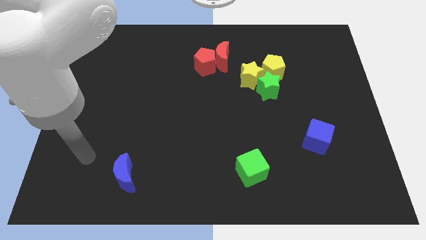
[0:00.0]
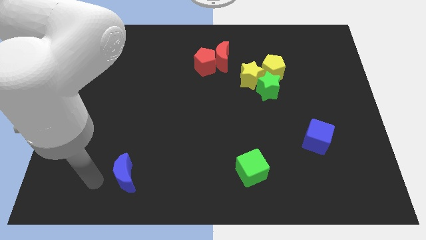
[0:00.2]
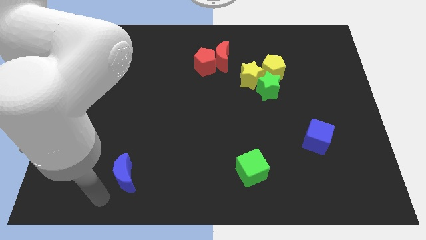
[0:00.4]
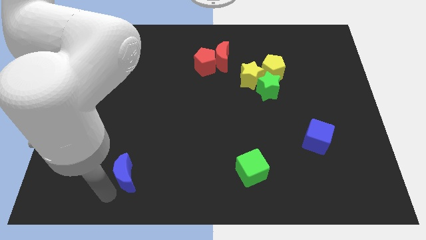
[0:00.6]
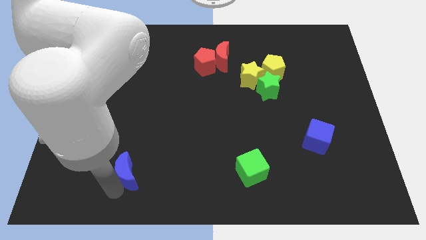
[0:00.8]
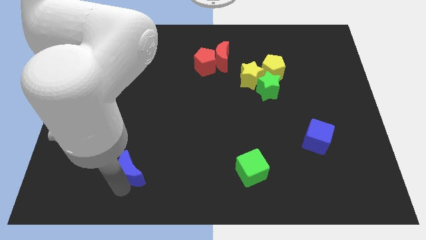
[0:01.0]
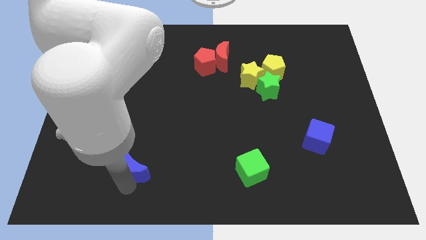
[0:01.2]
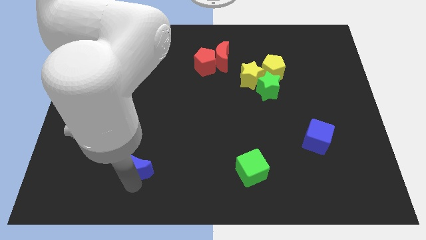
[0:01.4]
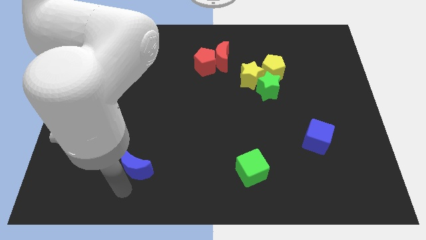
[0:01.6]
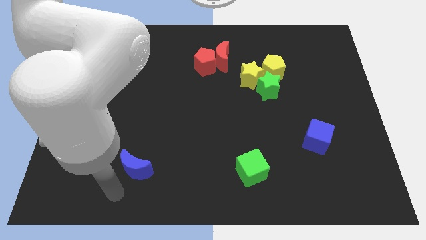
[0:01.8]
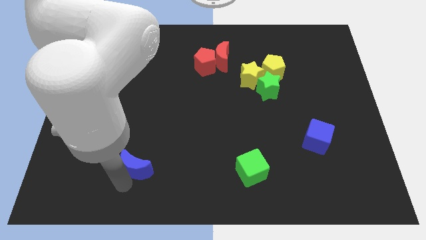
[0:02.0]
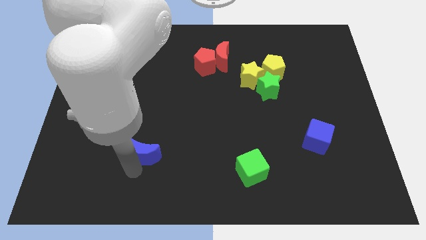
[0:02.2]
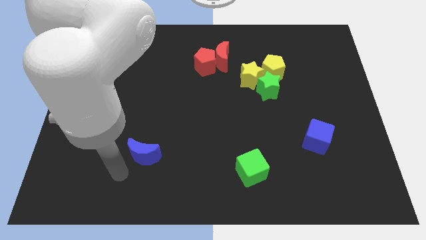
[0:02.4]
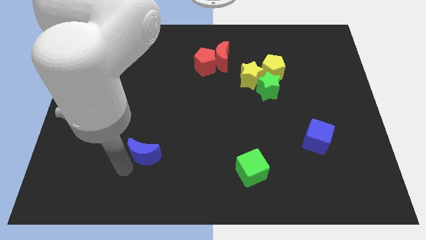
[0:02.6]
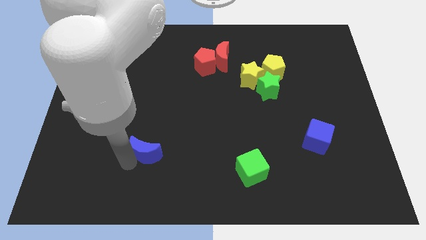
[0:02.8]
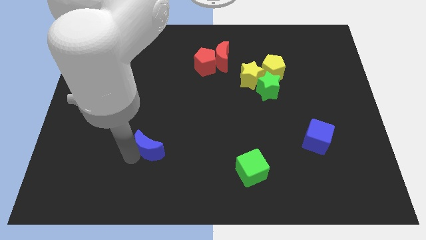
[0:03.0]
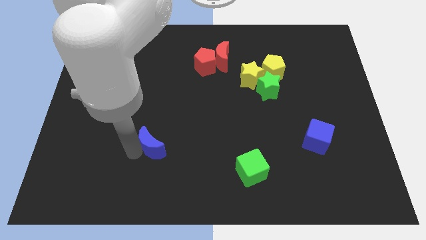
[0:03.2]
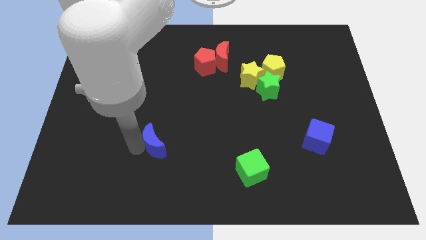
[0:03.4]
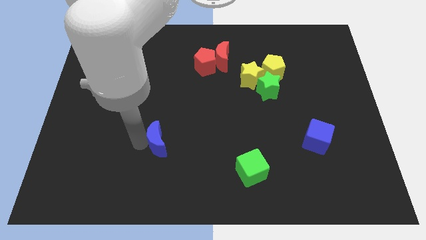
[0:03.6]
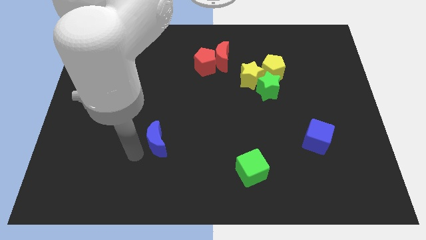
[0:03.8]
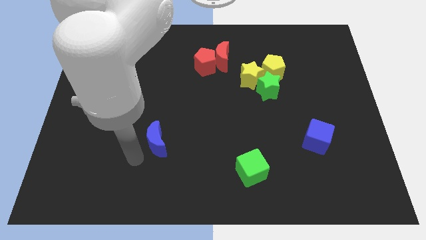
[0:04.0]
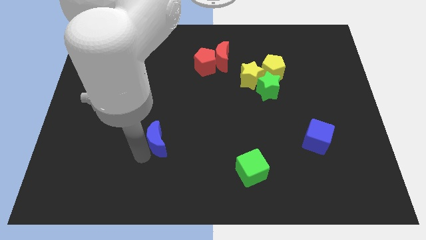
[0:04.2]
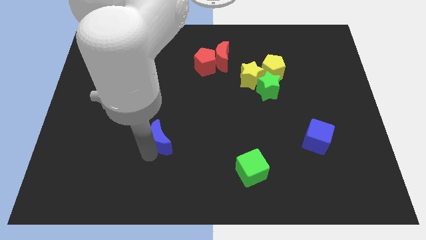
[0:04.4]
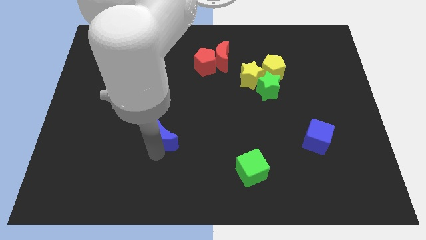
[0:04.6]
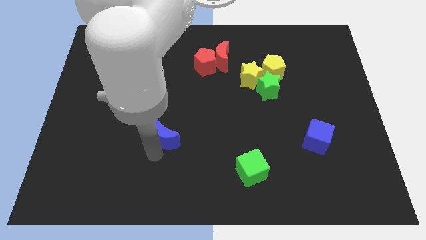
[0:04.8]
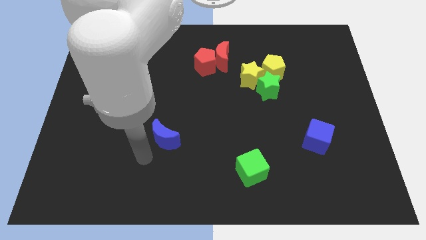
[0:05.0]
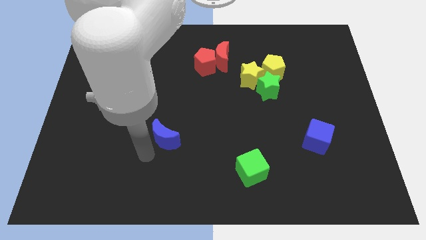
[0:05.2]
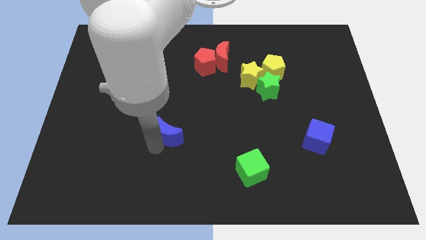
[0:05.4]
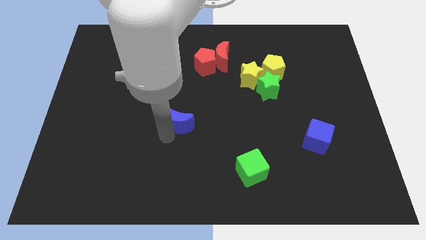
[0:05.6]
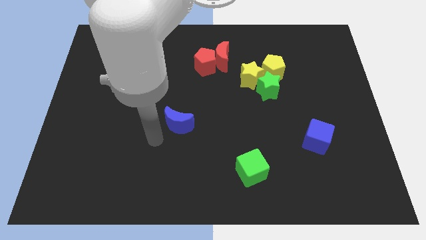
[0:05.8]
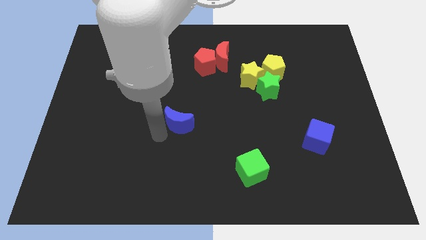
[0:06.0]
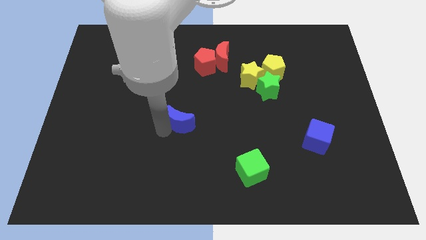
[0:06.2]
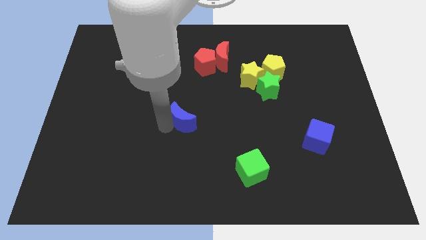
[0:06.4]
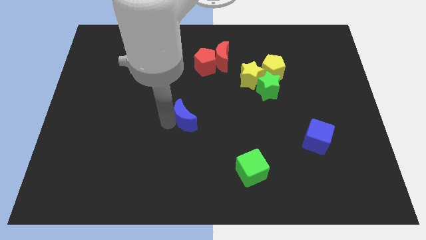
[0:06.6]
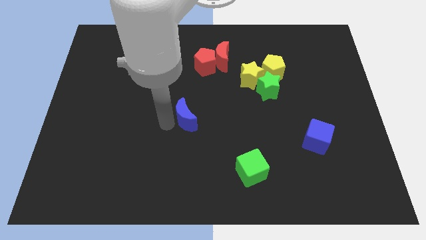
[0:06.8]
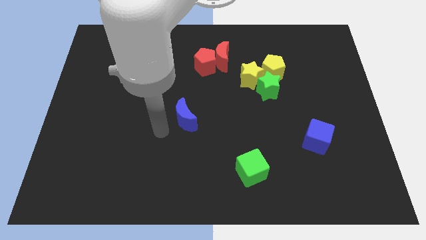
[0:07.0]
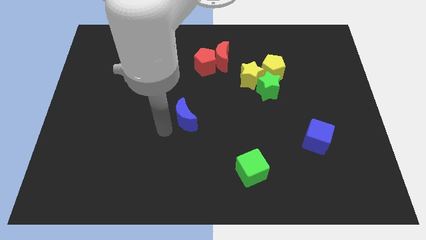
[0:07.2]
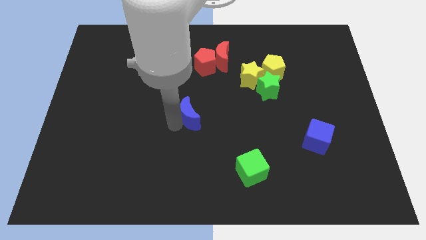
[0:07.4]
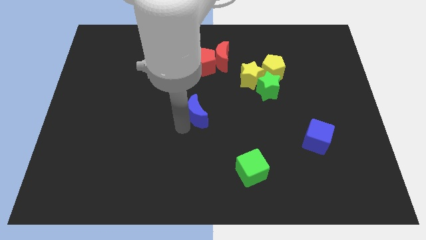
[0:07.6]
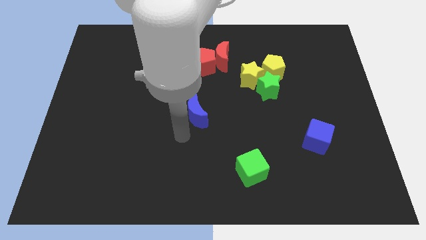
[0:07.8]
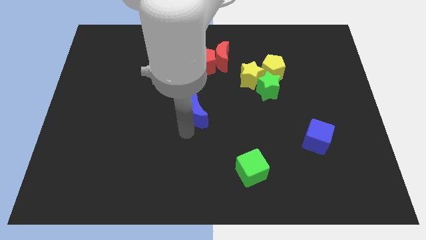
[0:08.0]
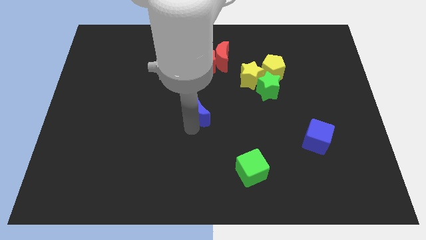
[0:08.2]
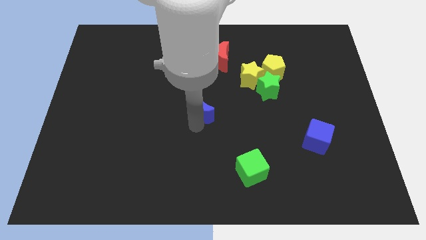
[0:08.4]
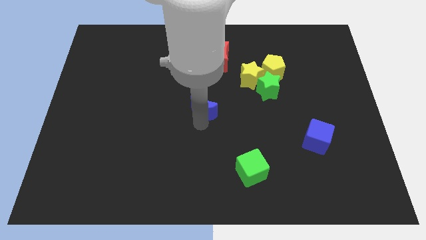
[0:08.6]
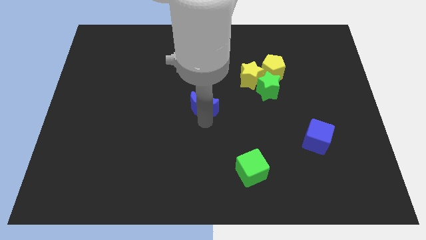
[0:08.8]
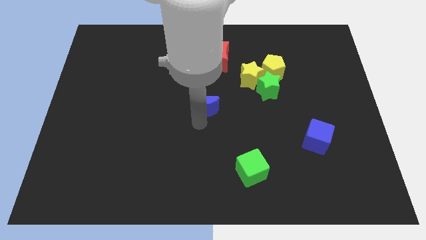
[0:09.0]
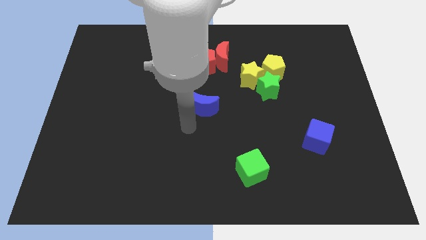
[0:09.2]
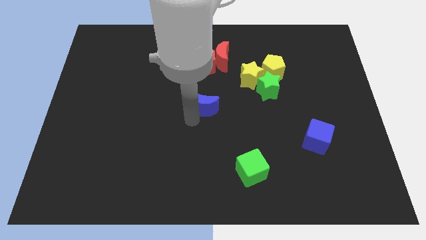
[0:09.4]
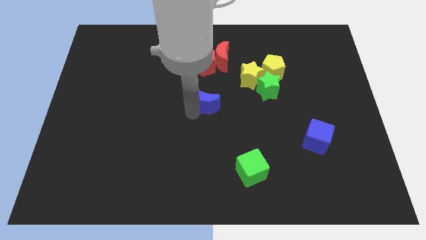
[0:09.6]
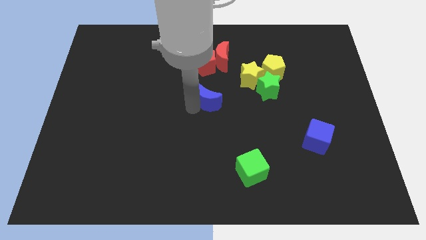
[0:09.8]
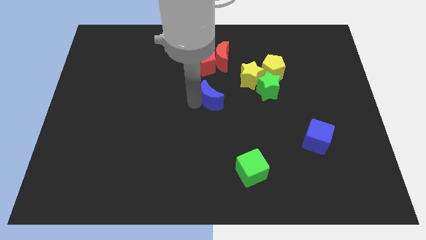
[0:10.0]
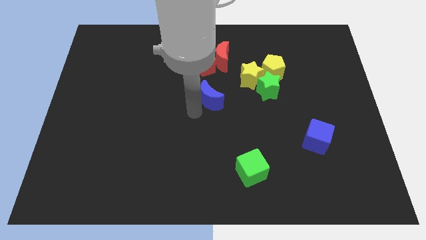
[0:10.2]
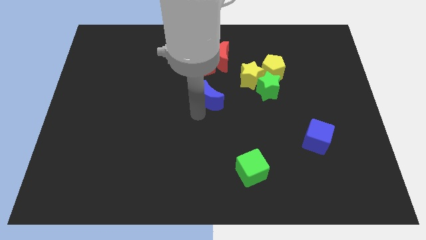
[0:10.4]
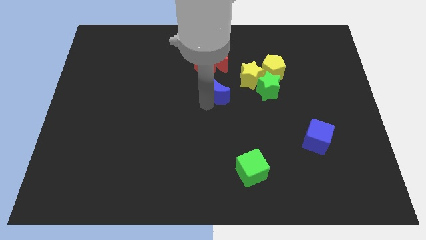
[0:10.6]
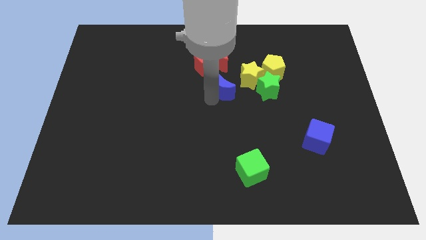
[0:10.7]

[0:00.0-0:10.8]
slide the blue moon to the bottom right side of the red pentagon

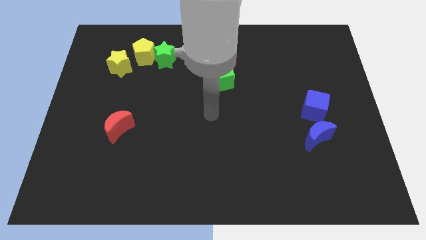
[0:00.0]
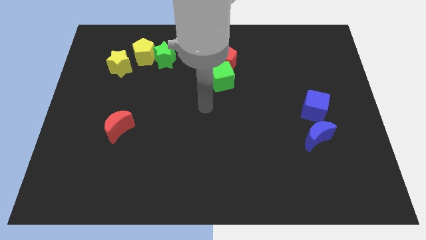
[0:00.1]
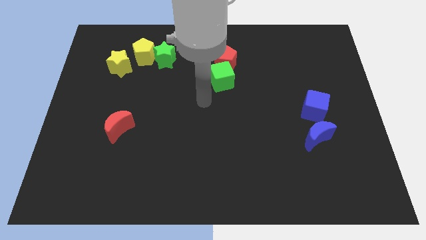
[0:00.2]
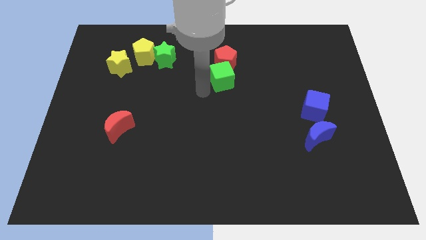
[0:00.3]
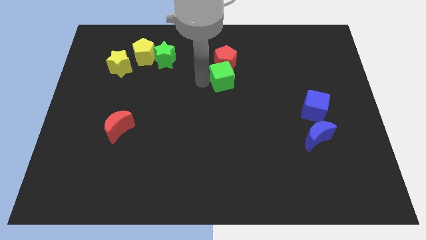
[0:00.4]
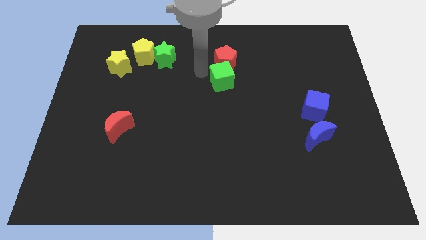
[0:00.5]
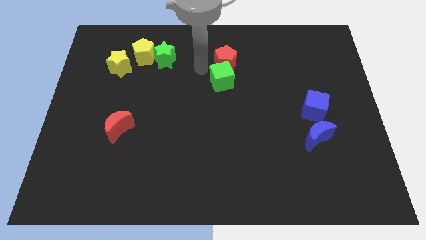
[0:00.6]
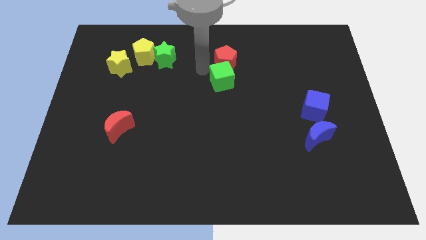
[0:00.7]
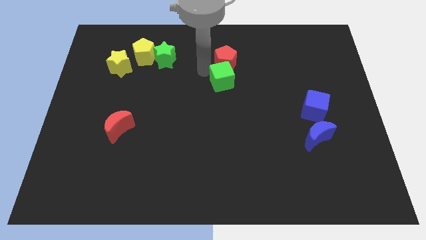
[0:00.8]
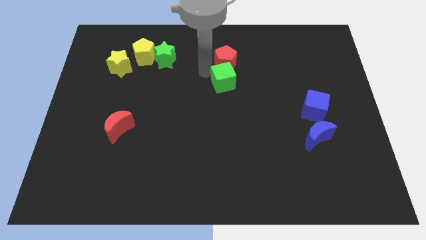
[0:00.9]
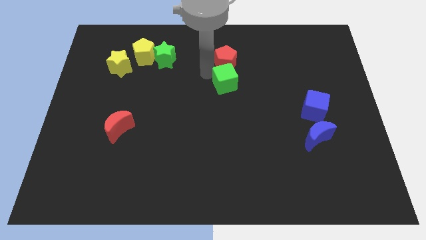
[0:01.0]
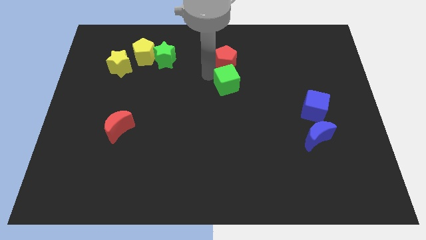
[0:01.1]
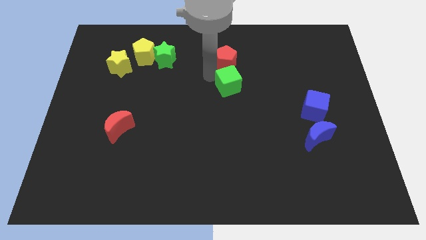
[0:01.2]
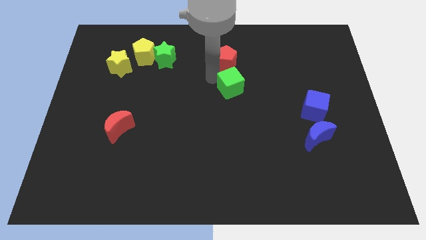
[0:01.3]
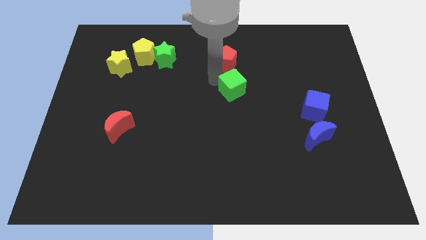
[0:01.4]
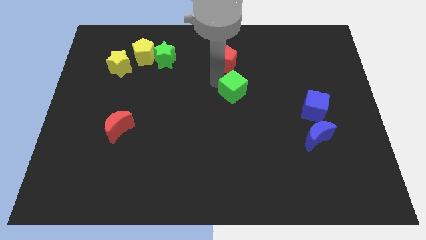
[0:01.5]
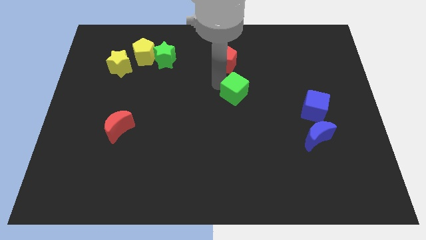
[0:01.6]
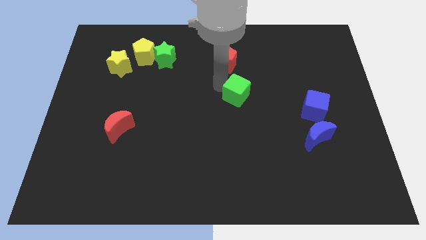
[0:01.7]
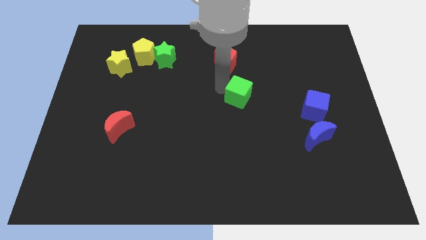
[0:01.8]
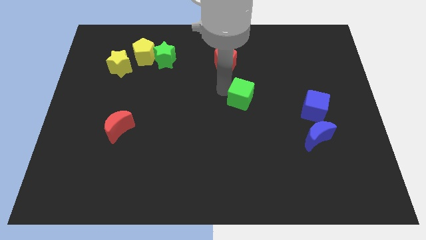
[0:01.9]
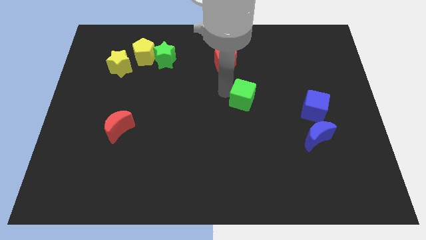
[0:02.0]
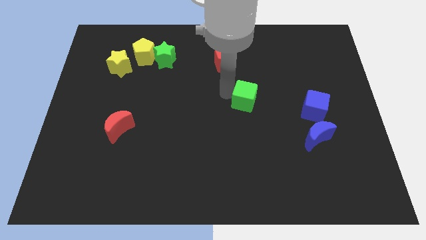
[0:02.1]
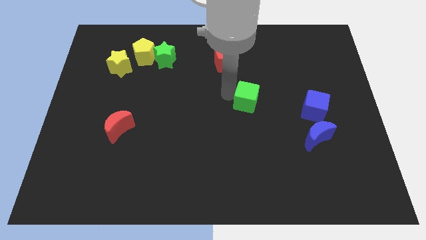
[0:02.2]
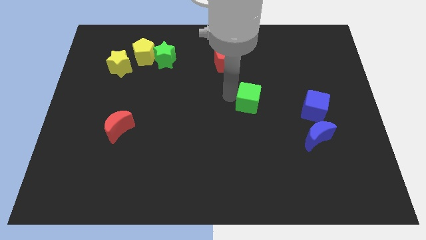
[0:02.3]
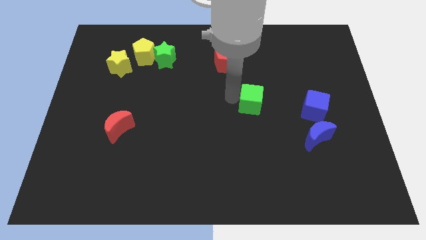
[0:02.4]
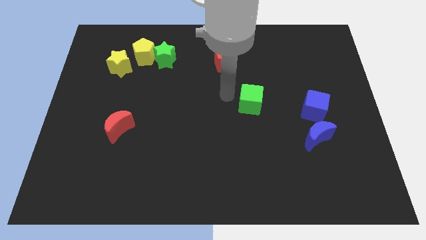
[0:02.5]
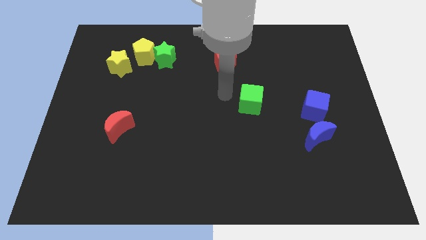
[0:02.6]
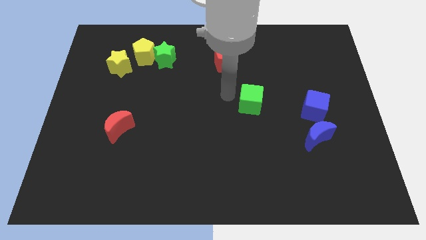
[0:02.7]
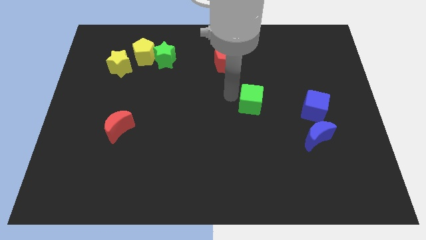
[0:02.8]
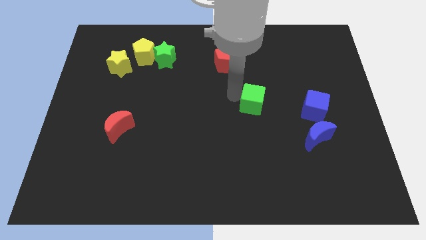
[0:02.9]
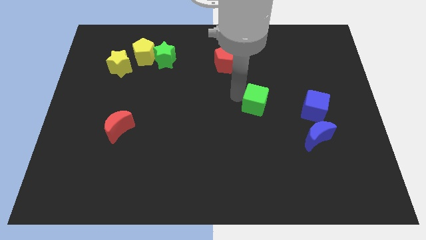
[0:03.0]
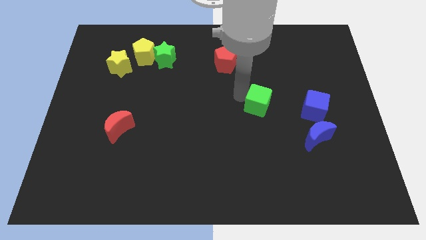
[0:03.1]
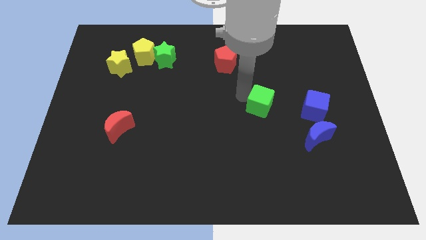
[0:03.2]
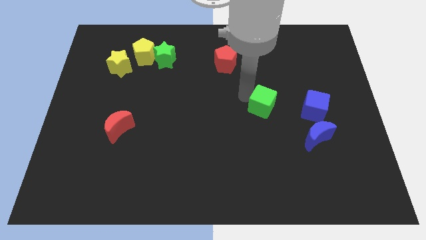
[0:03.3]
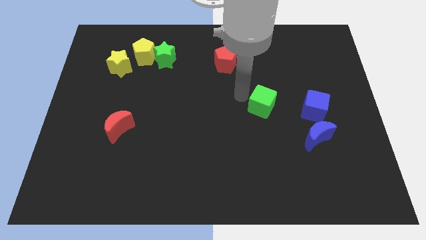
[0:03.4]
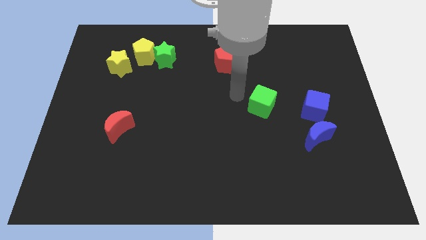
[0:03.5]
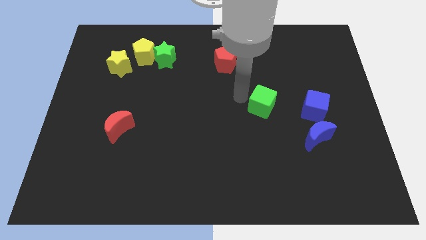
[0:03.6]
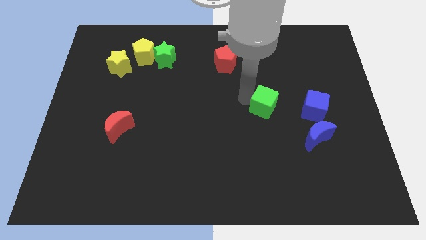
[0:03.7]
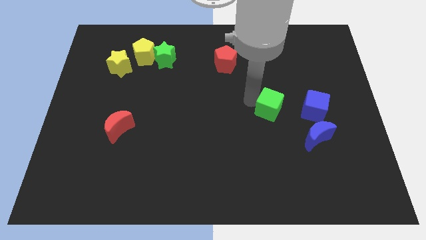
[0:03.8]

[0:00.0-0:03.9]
push the green cube to the top left side of the blue moon
